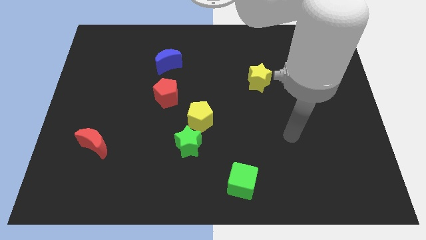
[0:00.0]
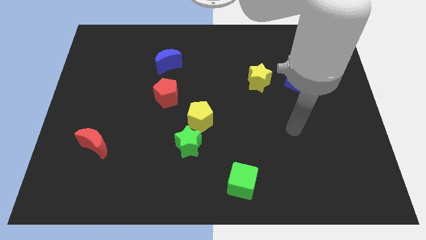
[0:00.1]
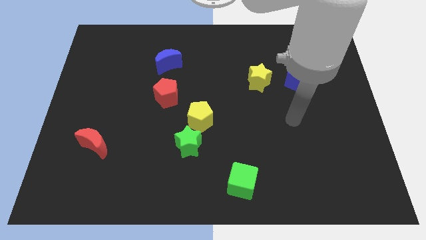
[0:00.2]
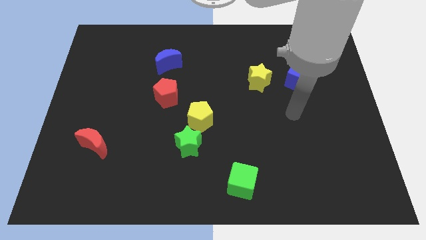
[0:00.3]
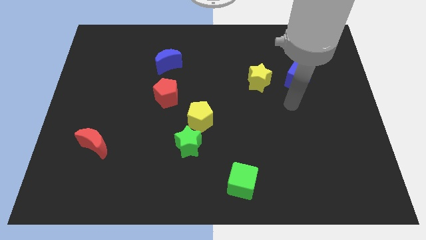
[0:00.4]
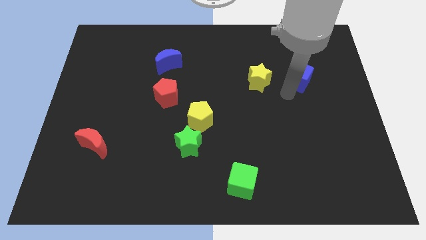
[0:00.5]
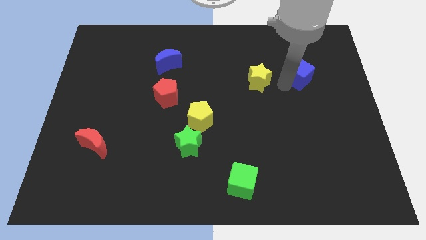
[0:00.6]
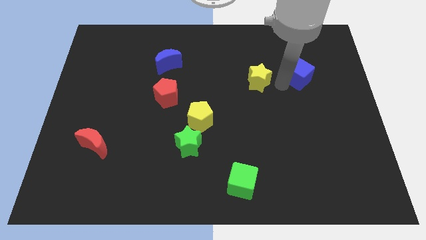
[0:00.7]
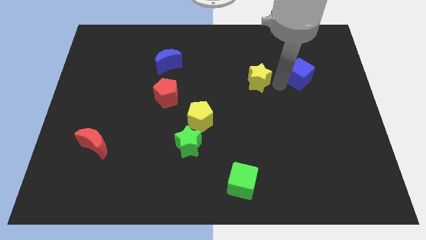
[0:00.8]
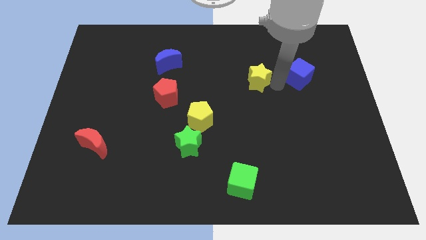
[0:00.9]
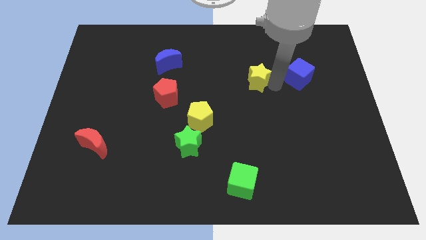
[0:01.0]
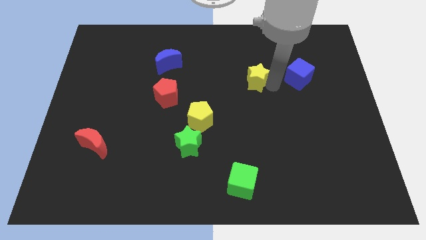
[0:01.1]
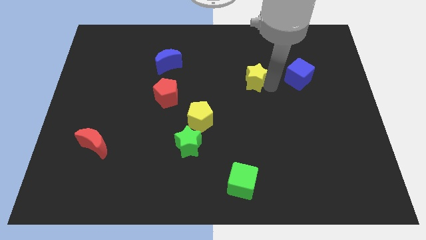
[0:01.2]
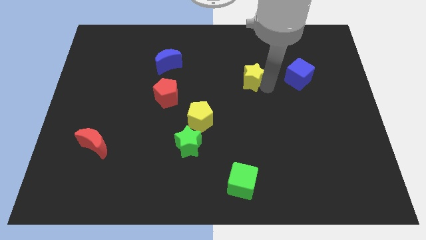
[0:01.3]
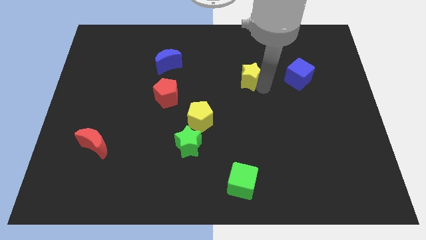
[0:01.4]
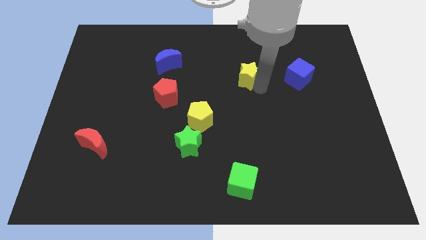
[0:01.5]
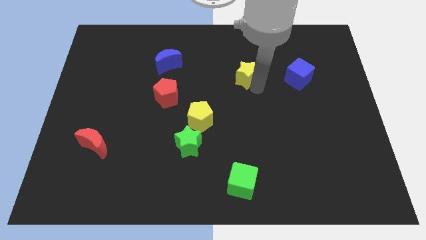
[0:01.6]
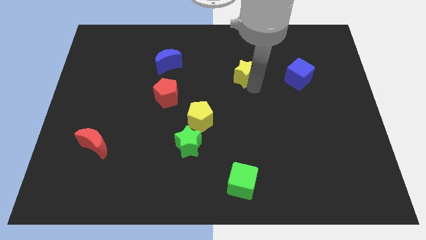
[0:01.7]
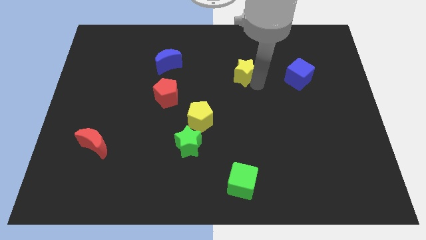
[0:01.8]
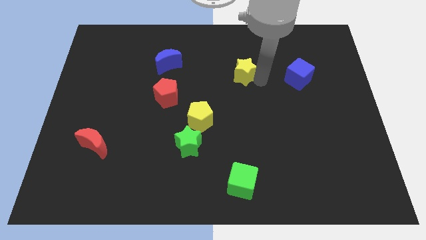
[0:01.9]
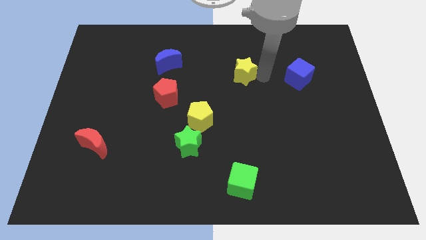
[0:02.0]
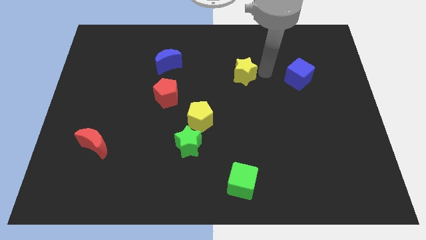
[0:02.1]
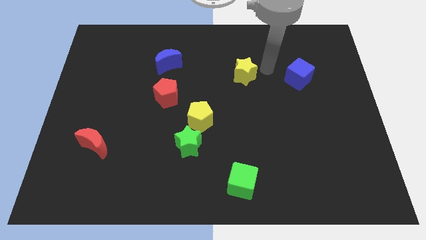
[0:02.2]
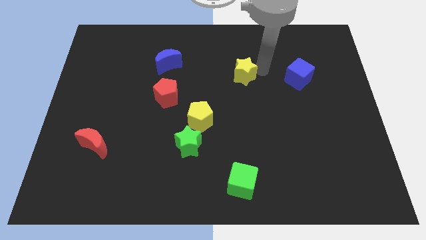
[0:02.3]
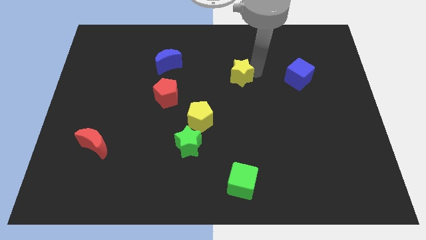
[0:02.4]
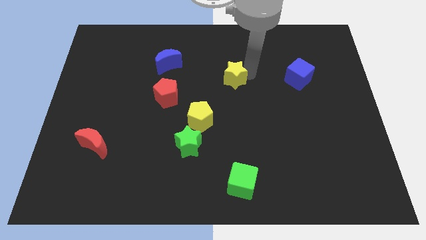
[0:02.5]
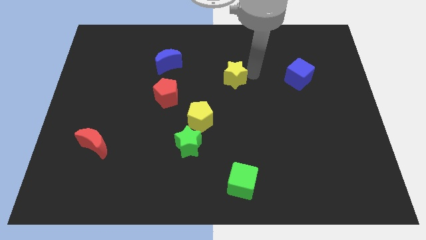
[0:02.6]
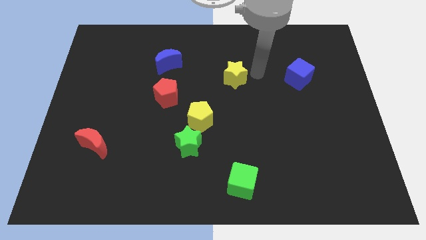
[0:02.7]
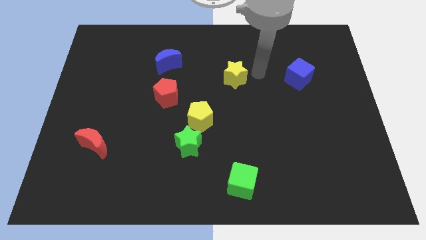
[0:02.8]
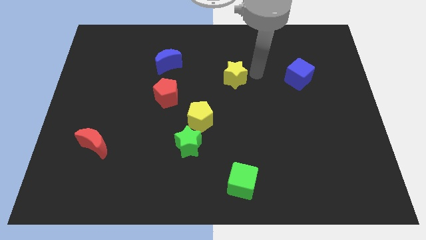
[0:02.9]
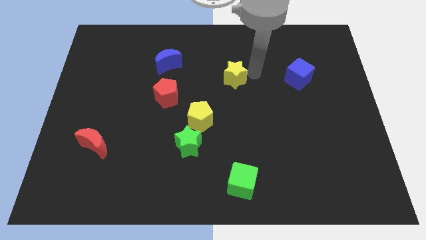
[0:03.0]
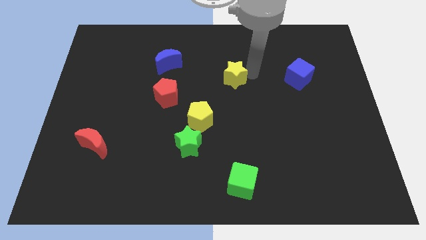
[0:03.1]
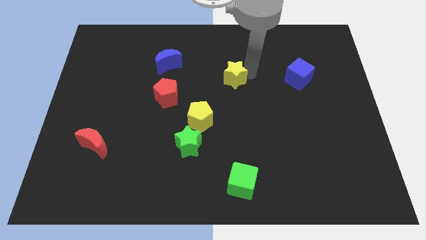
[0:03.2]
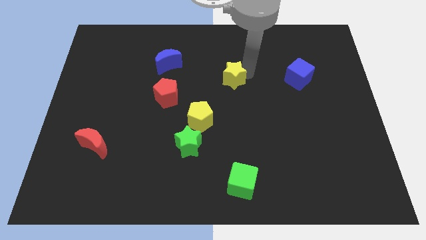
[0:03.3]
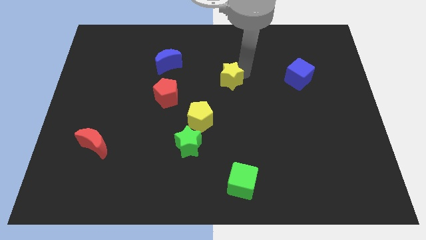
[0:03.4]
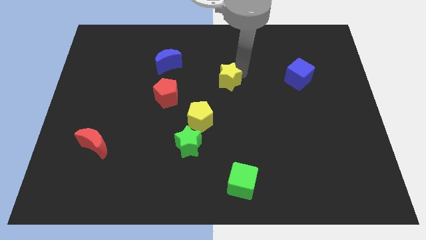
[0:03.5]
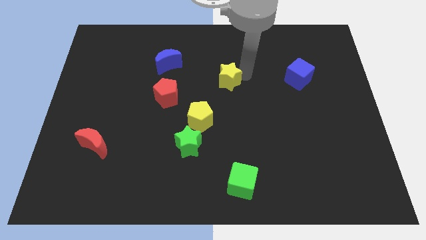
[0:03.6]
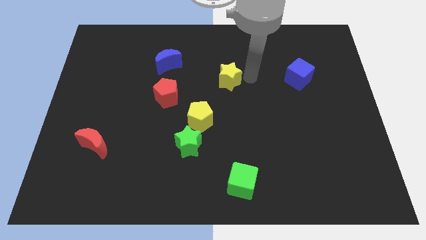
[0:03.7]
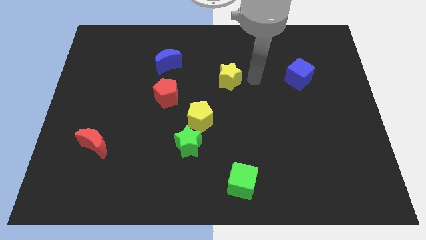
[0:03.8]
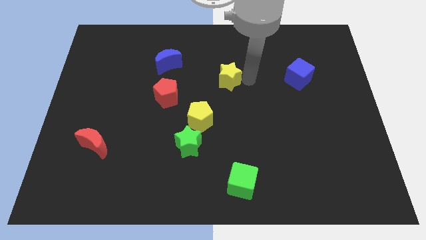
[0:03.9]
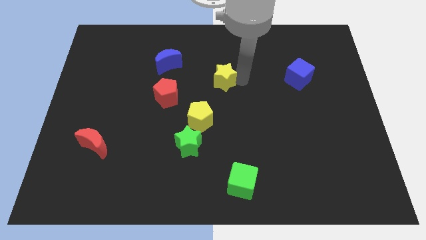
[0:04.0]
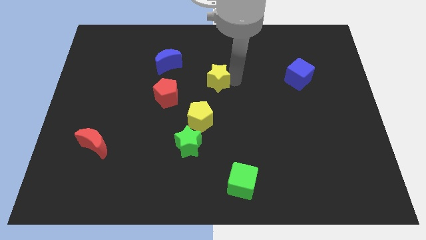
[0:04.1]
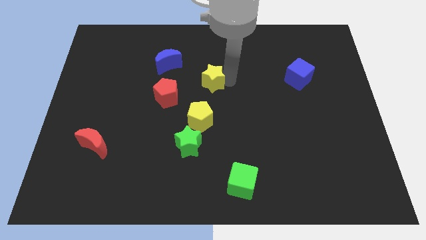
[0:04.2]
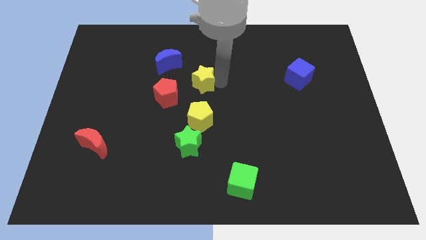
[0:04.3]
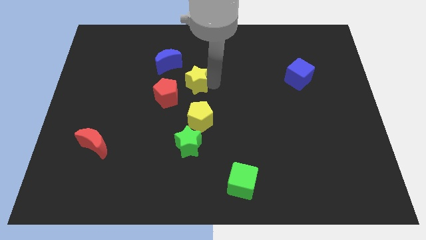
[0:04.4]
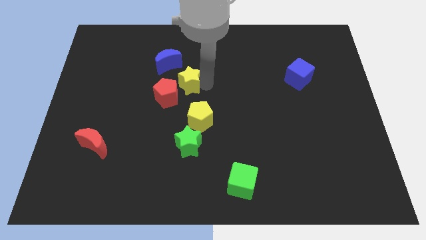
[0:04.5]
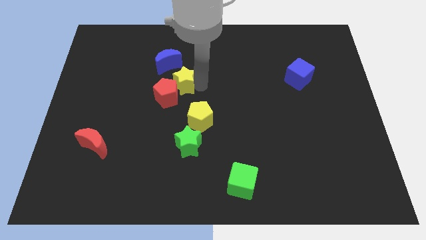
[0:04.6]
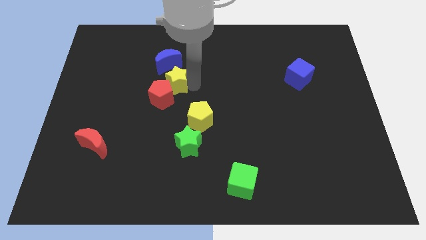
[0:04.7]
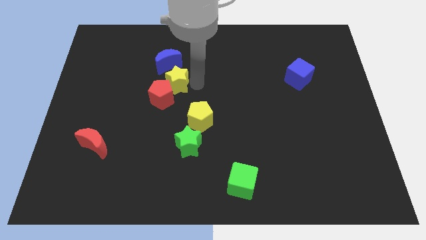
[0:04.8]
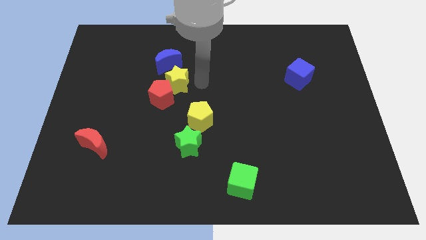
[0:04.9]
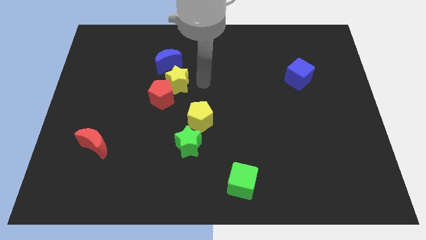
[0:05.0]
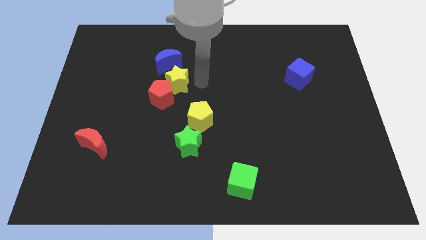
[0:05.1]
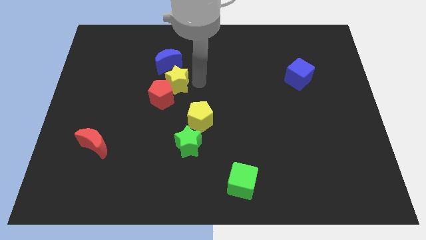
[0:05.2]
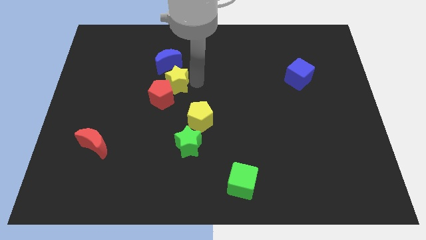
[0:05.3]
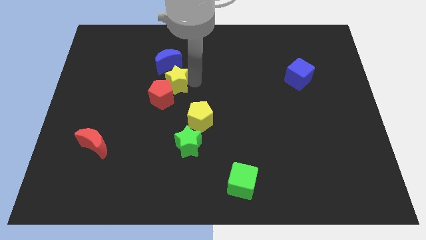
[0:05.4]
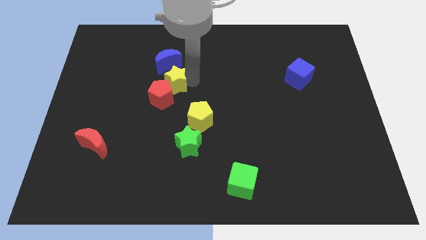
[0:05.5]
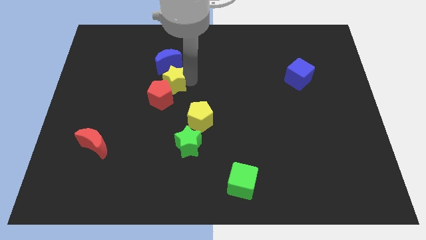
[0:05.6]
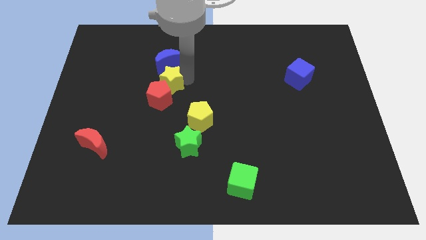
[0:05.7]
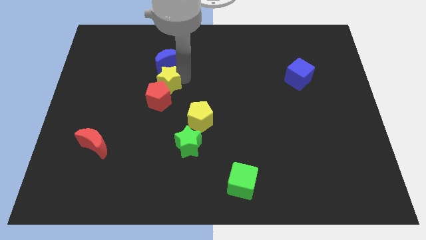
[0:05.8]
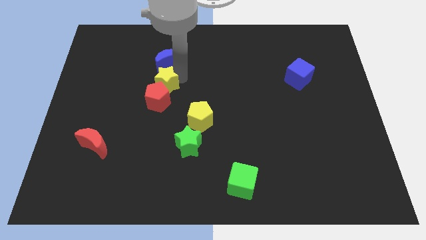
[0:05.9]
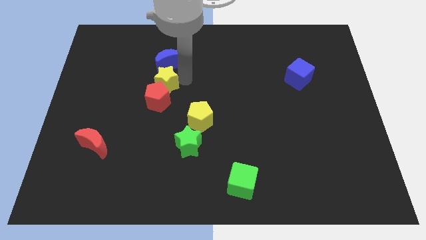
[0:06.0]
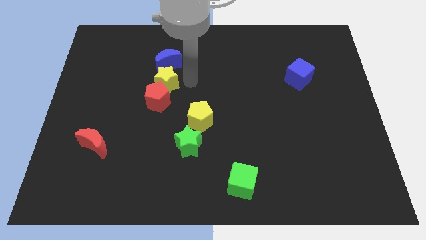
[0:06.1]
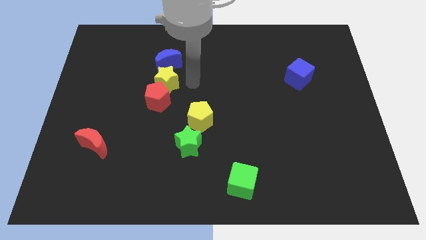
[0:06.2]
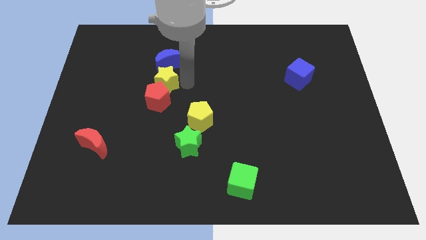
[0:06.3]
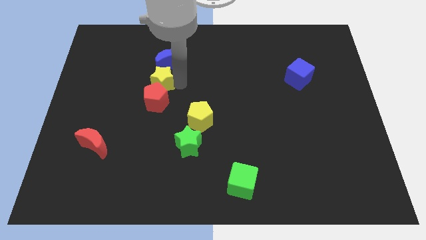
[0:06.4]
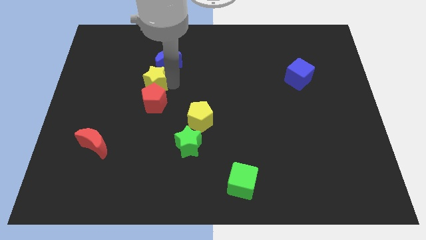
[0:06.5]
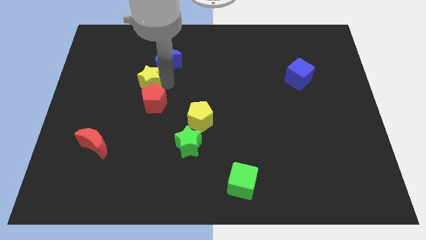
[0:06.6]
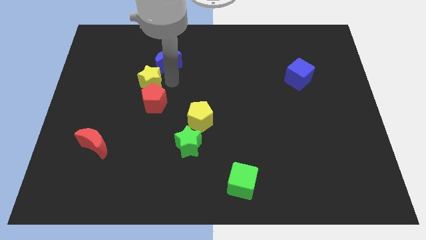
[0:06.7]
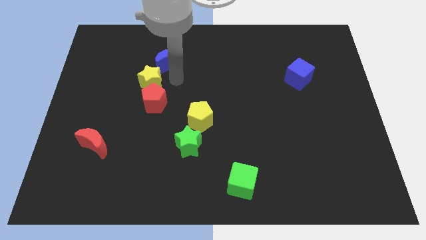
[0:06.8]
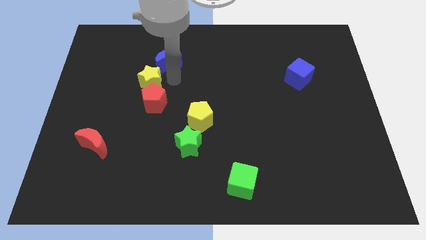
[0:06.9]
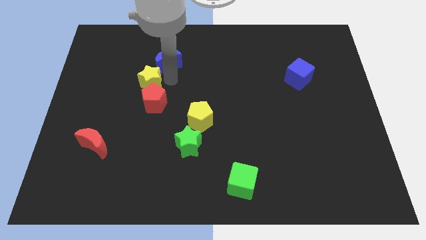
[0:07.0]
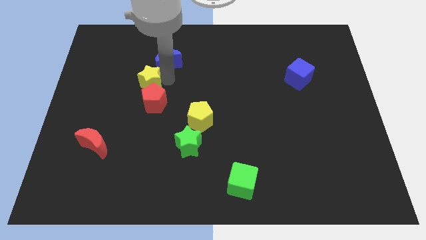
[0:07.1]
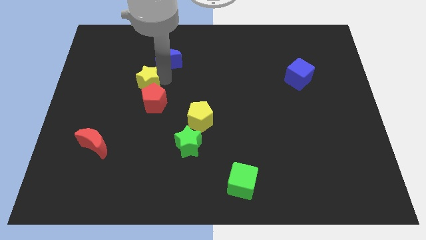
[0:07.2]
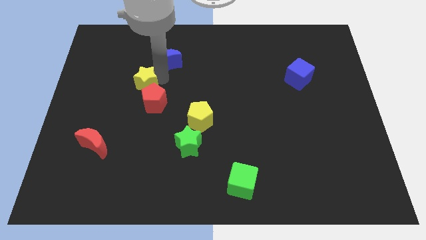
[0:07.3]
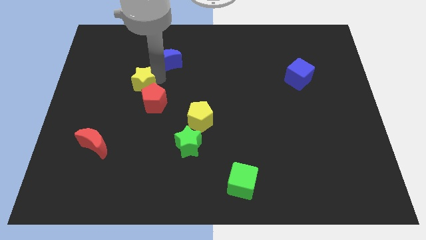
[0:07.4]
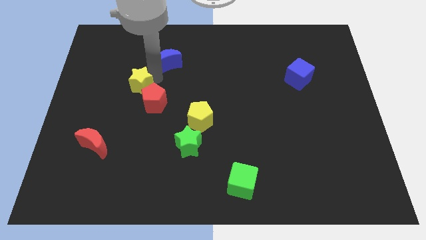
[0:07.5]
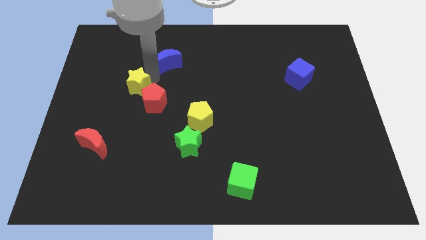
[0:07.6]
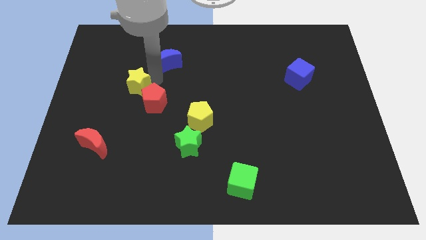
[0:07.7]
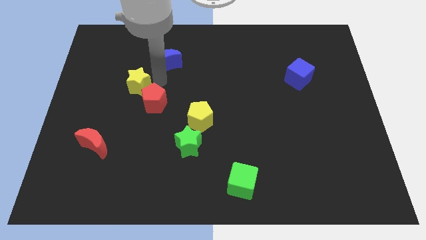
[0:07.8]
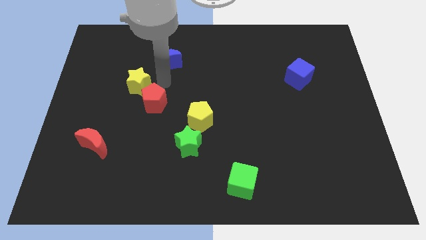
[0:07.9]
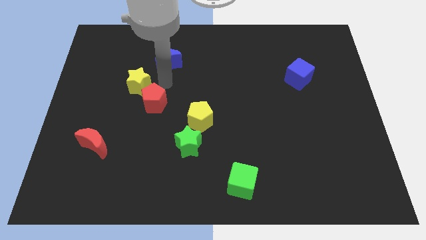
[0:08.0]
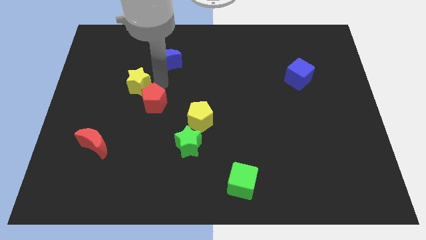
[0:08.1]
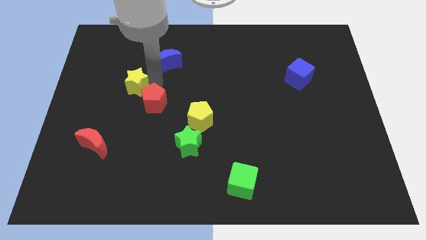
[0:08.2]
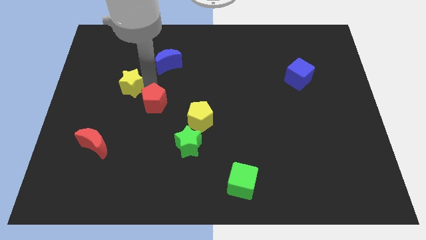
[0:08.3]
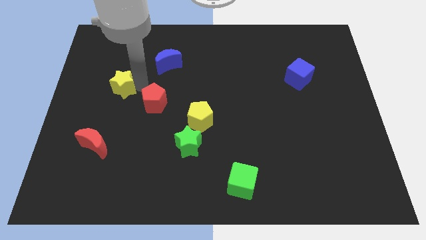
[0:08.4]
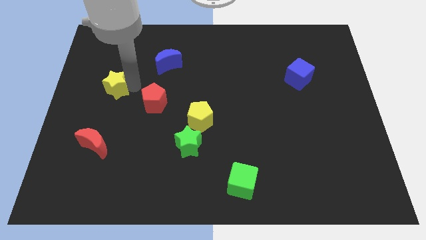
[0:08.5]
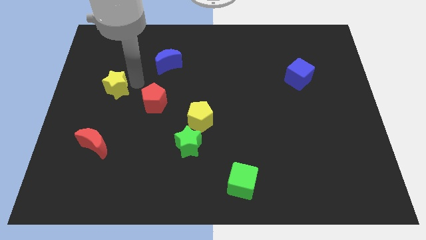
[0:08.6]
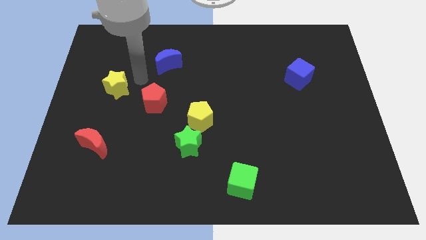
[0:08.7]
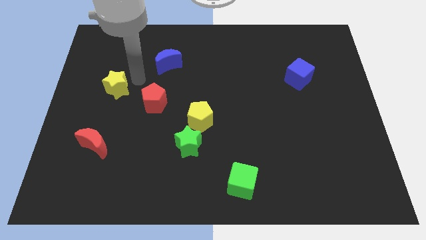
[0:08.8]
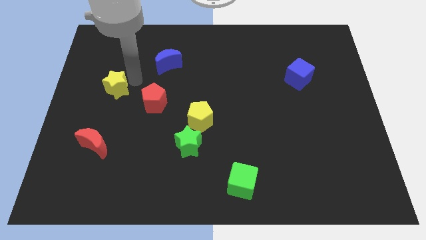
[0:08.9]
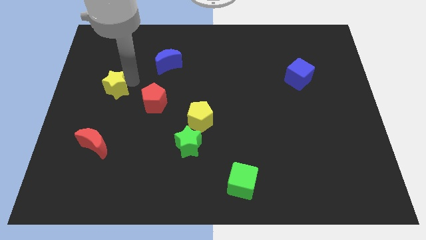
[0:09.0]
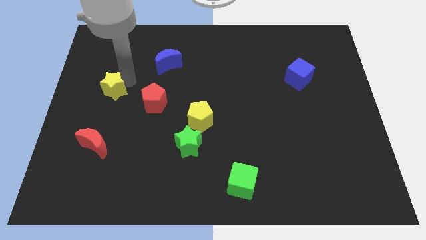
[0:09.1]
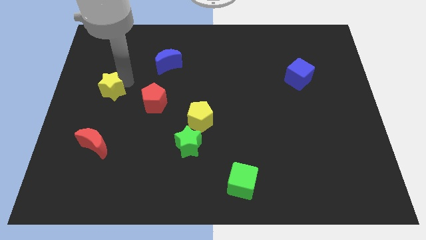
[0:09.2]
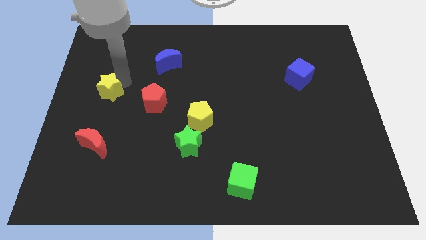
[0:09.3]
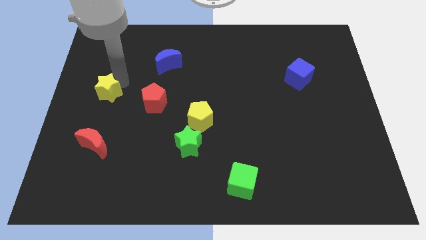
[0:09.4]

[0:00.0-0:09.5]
push the yellow star to the left side of the board
